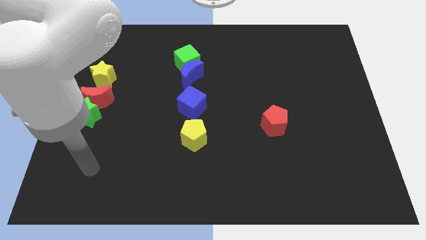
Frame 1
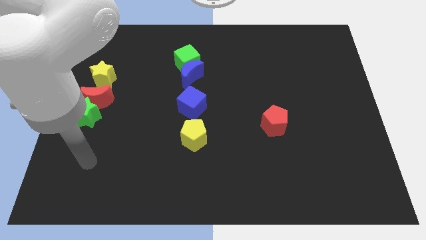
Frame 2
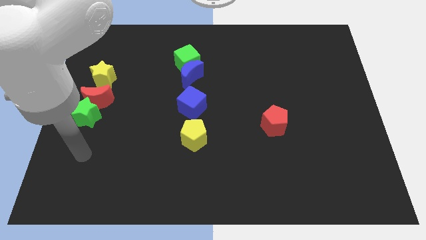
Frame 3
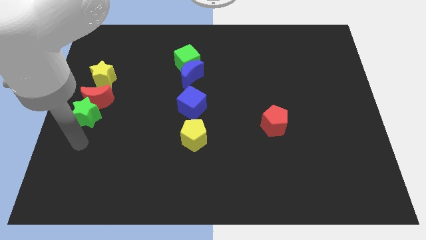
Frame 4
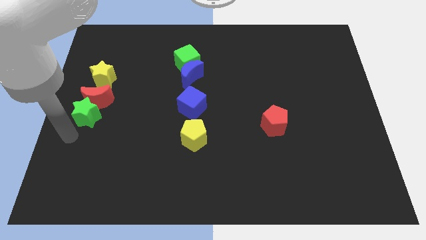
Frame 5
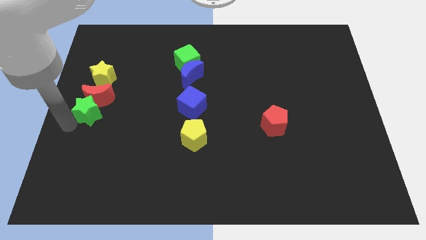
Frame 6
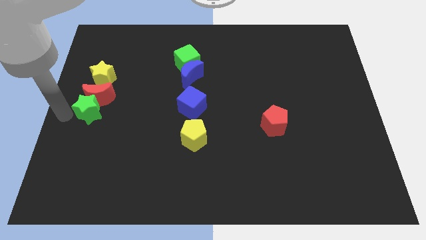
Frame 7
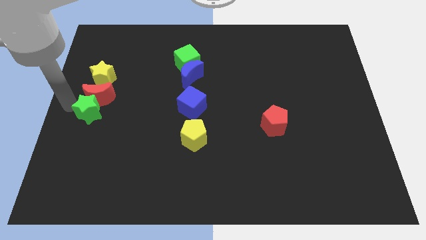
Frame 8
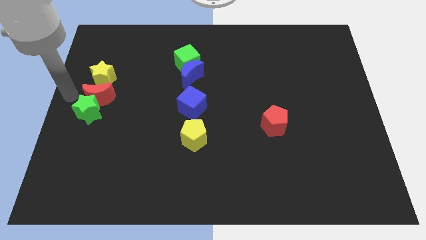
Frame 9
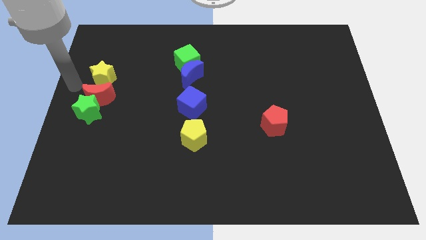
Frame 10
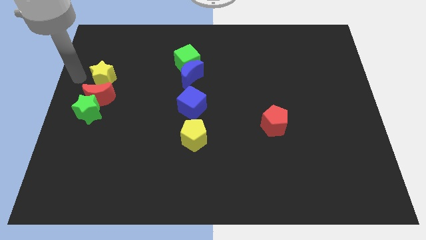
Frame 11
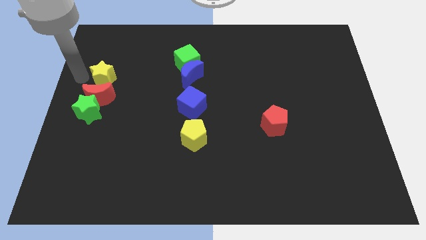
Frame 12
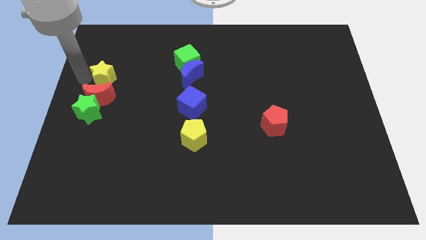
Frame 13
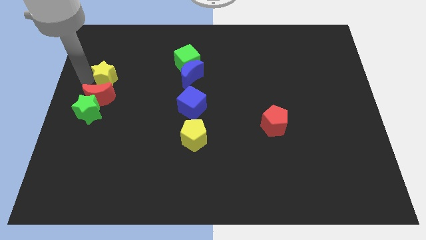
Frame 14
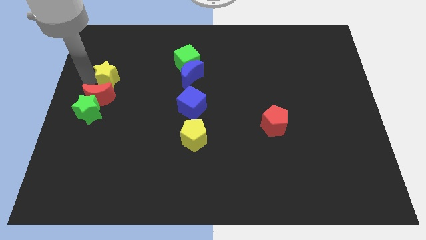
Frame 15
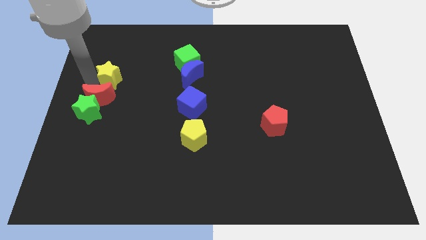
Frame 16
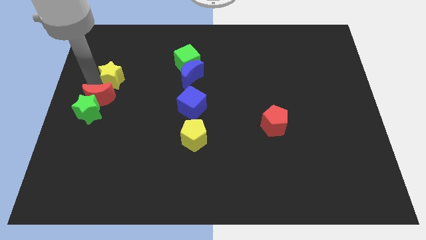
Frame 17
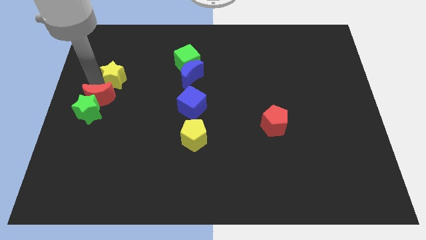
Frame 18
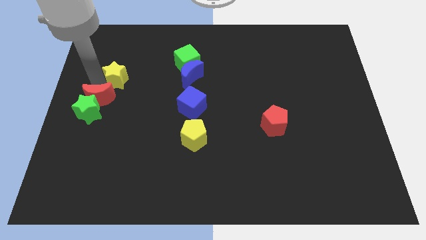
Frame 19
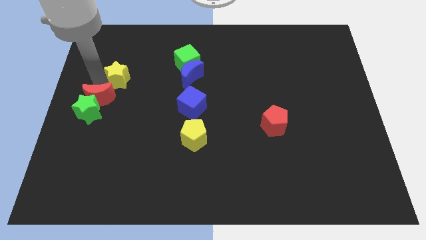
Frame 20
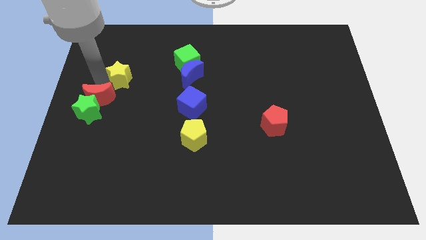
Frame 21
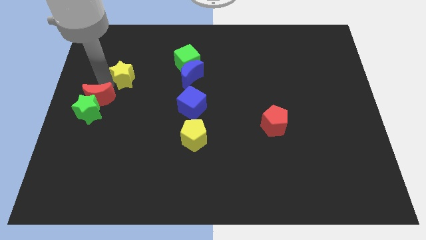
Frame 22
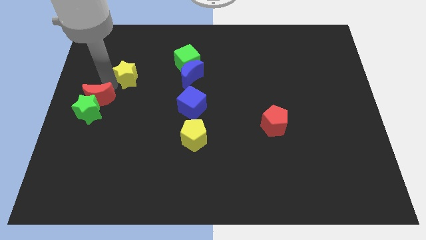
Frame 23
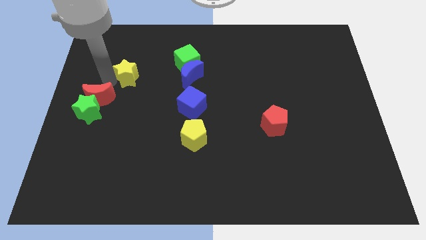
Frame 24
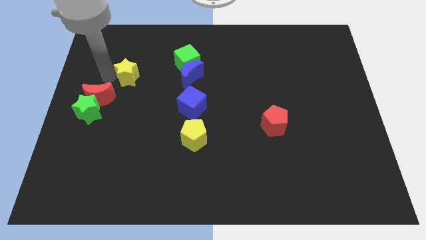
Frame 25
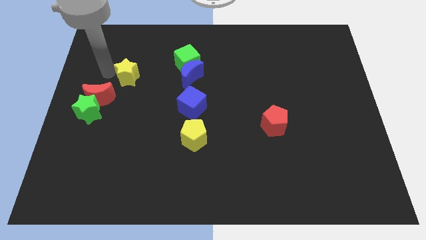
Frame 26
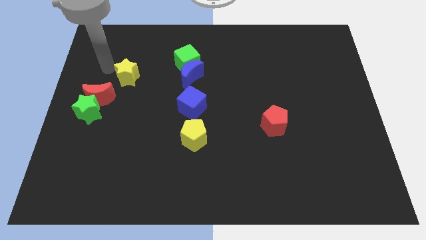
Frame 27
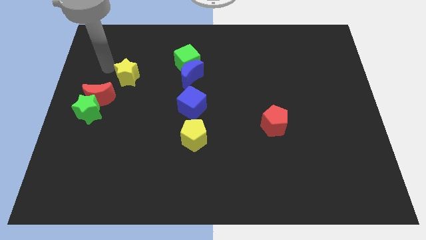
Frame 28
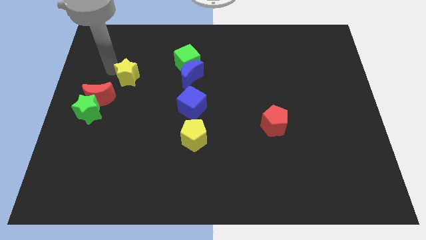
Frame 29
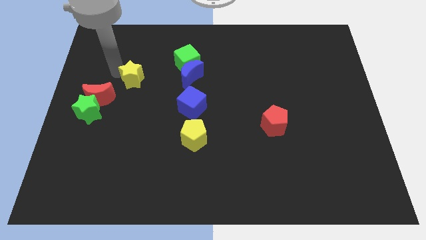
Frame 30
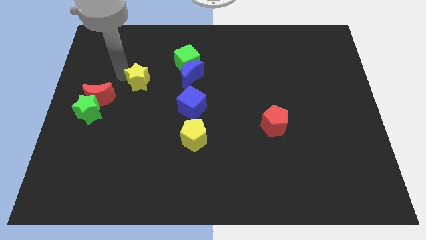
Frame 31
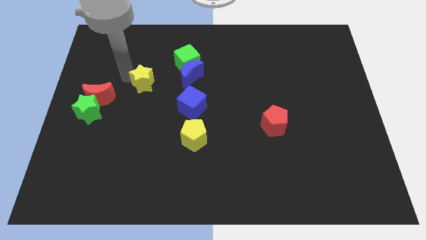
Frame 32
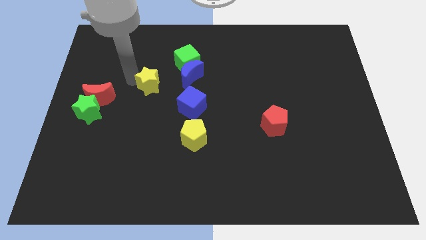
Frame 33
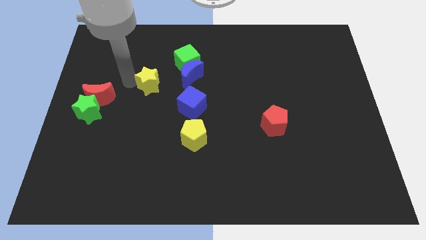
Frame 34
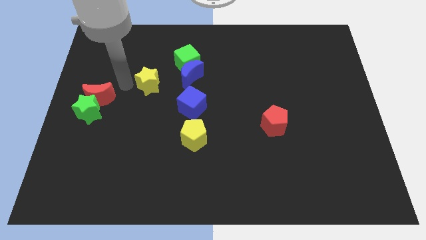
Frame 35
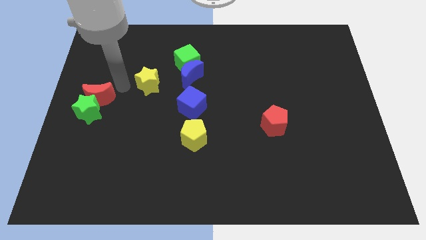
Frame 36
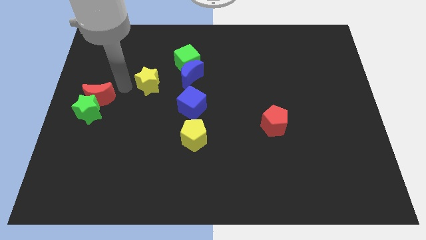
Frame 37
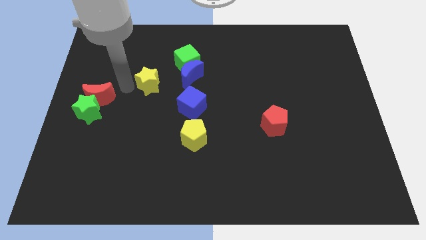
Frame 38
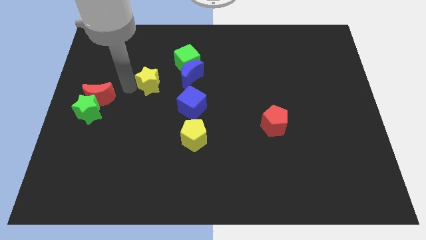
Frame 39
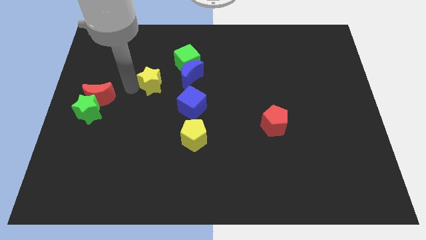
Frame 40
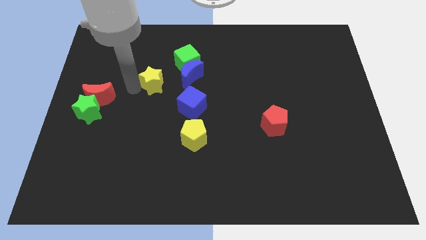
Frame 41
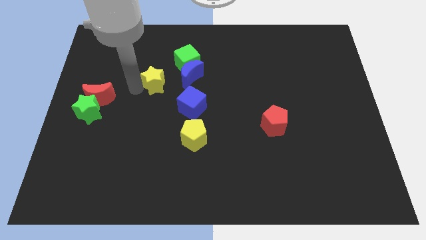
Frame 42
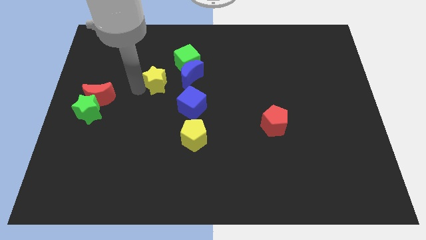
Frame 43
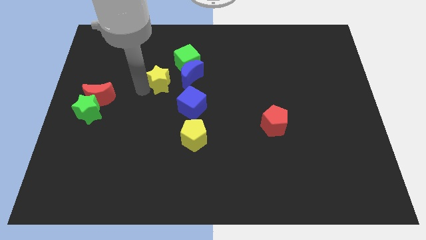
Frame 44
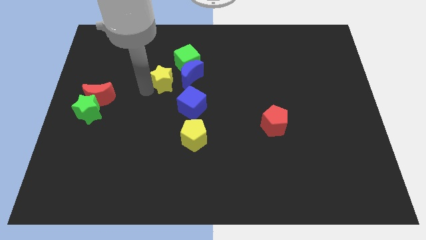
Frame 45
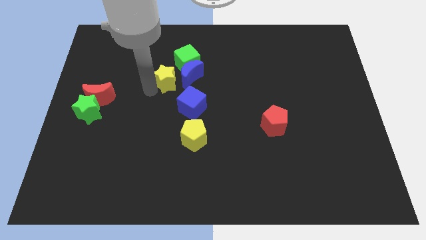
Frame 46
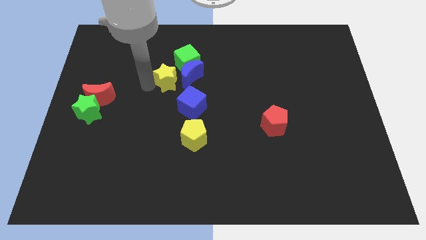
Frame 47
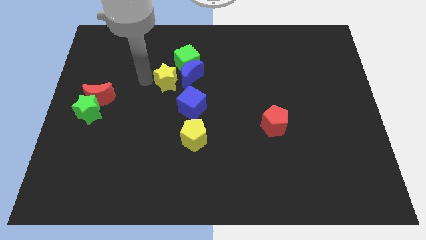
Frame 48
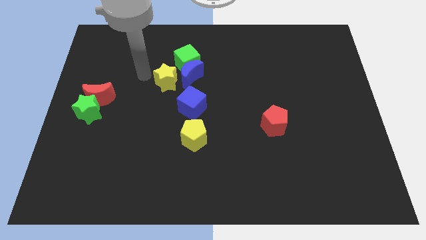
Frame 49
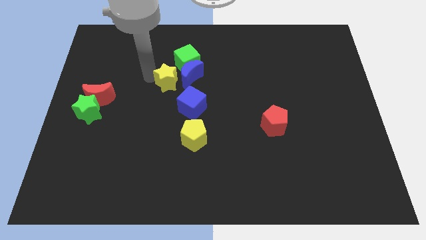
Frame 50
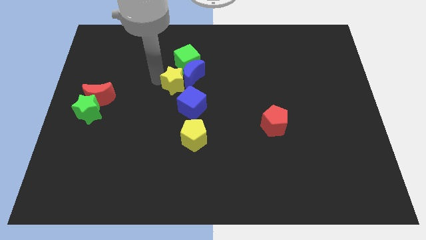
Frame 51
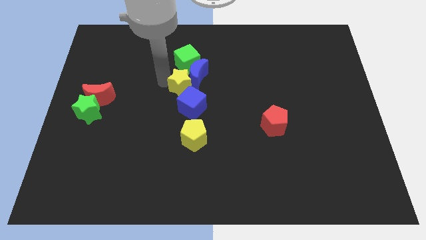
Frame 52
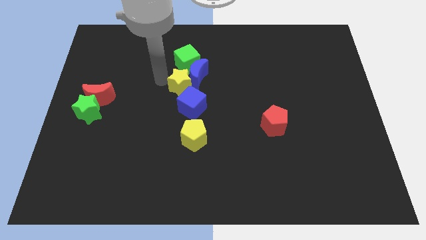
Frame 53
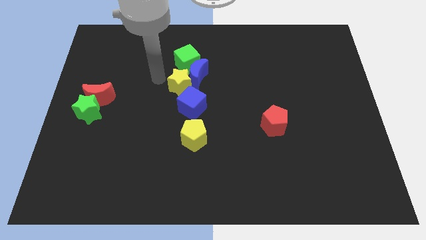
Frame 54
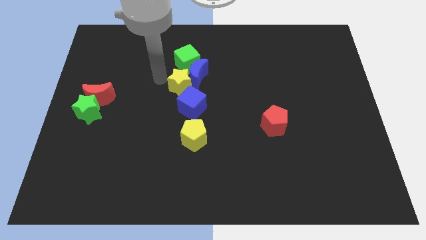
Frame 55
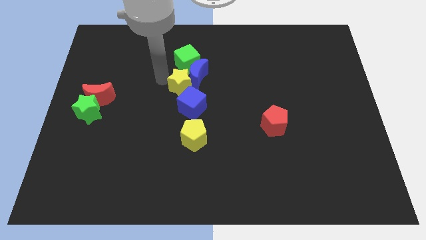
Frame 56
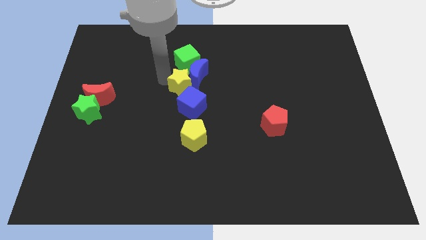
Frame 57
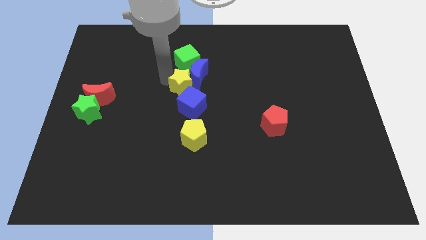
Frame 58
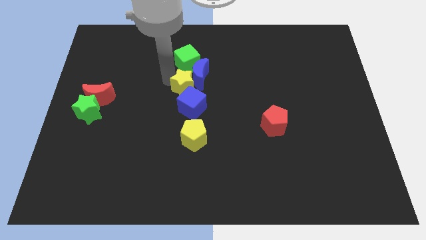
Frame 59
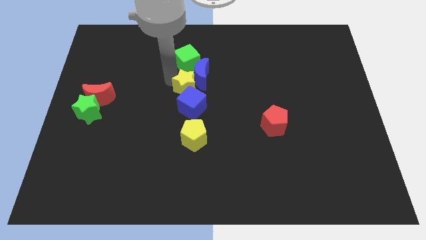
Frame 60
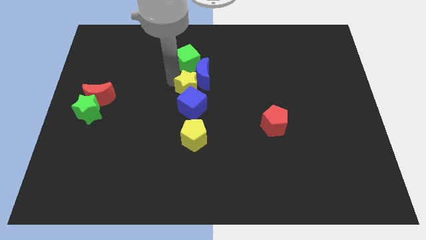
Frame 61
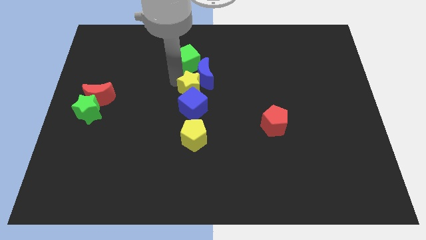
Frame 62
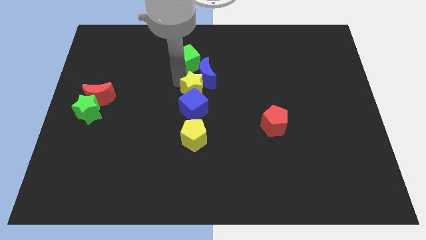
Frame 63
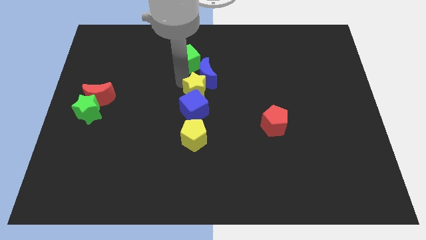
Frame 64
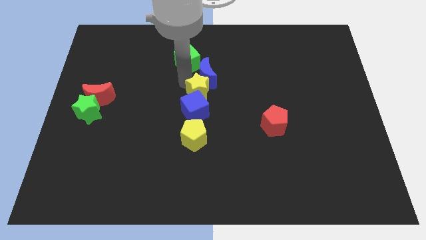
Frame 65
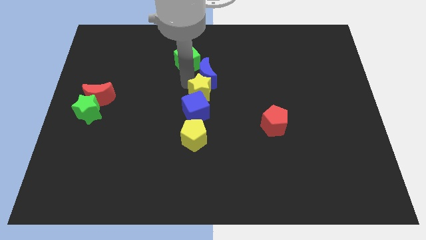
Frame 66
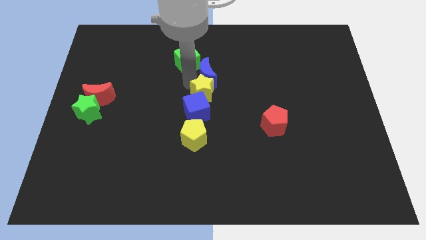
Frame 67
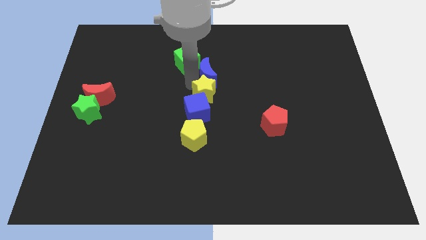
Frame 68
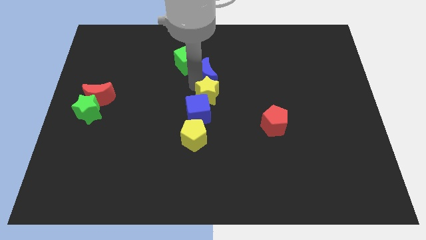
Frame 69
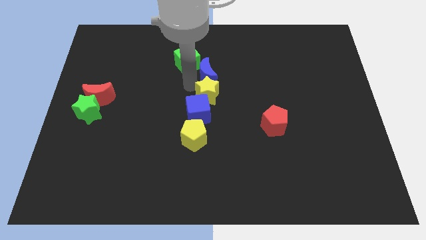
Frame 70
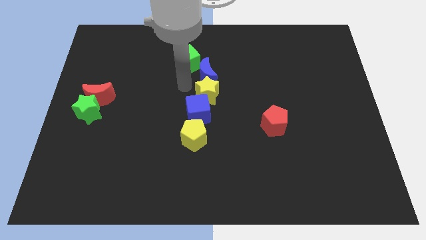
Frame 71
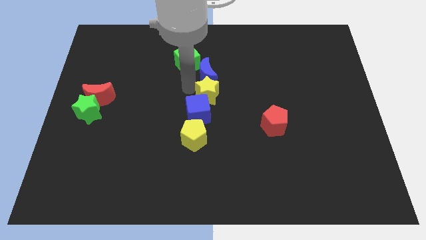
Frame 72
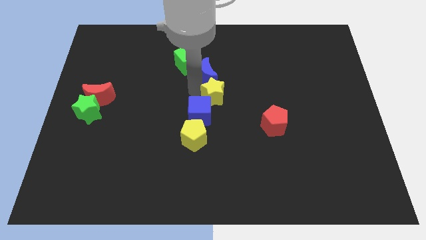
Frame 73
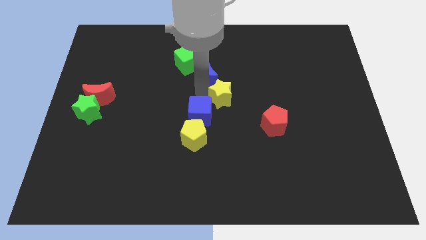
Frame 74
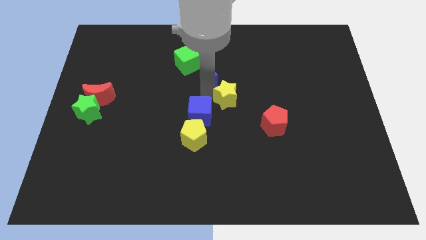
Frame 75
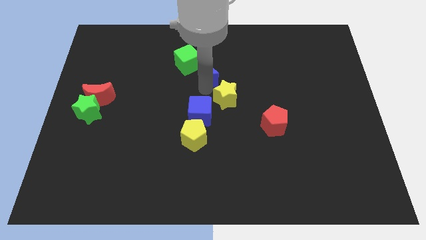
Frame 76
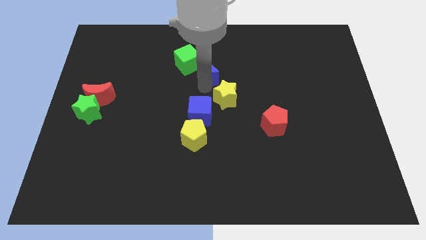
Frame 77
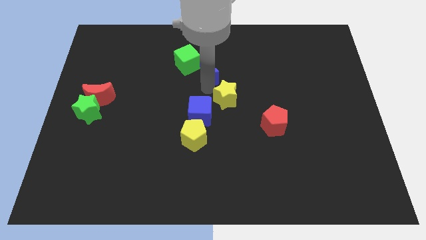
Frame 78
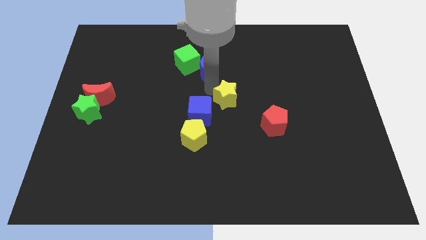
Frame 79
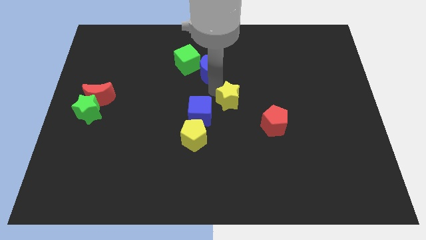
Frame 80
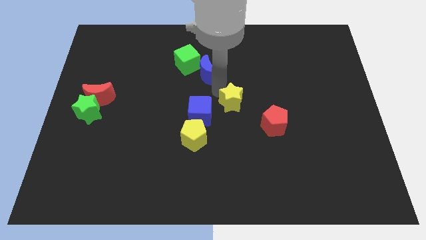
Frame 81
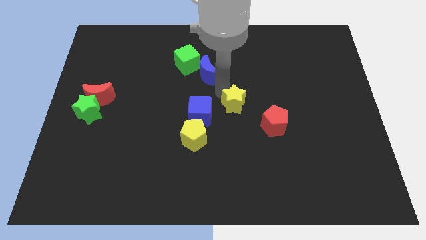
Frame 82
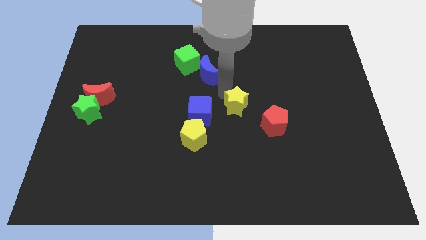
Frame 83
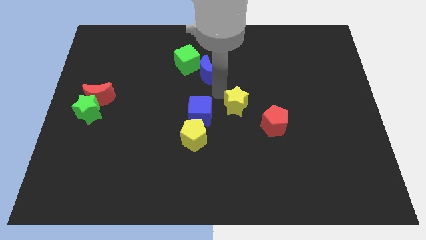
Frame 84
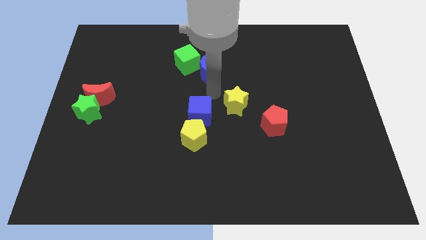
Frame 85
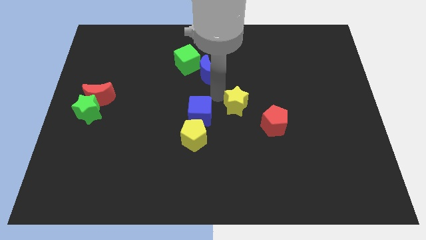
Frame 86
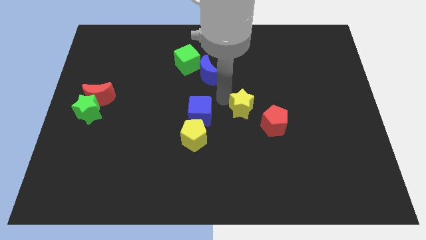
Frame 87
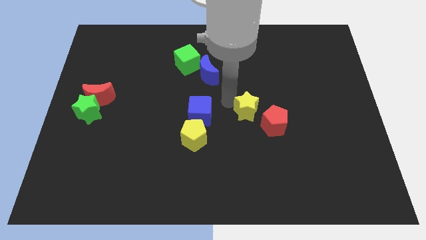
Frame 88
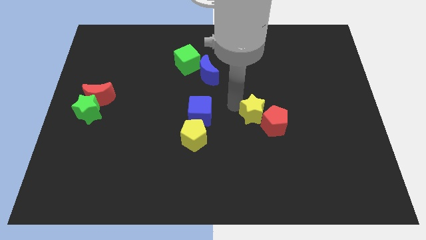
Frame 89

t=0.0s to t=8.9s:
move the yellow star to the red pentagon
